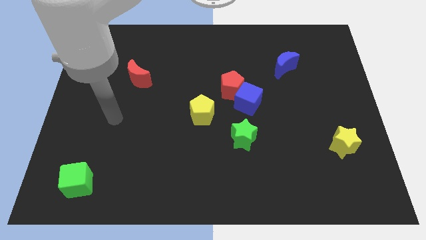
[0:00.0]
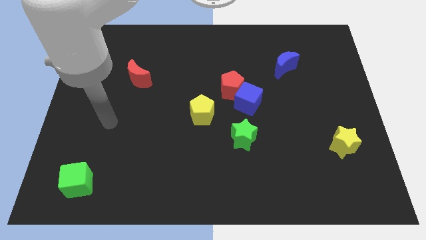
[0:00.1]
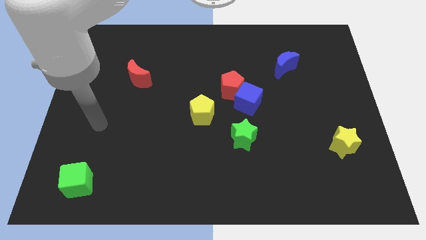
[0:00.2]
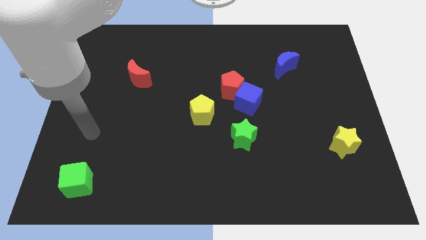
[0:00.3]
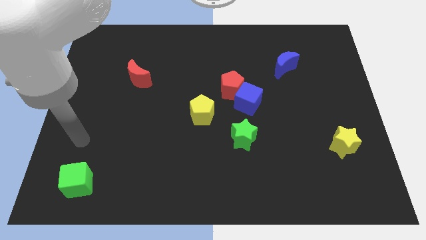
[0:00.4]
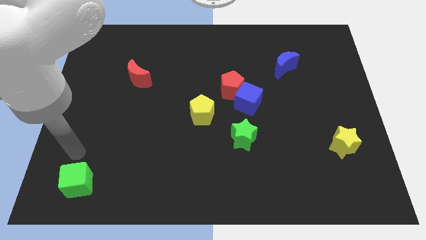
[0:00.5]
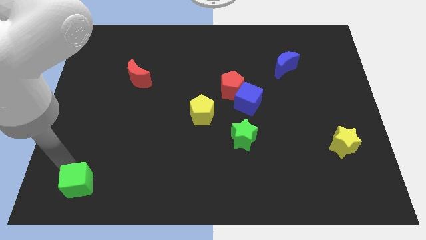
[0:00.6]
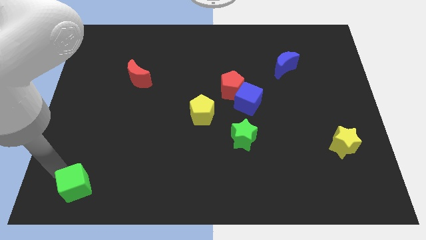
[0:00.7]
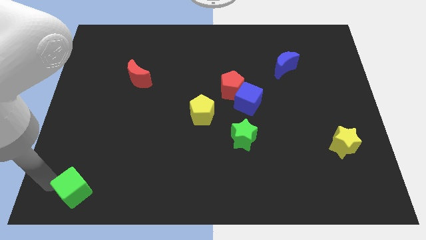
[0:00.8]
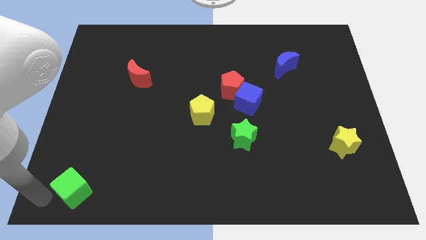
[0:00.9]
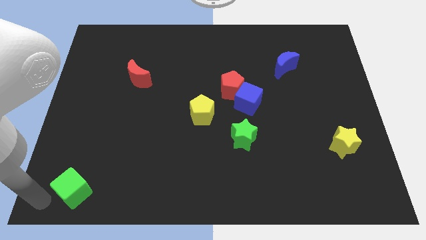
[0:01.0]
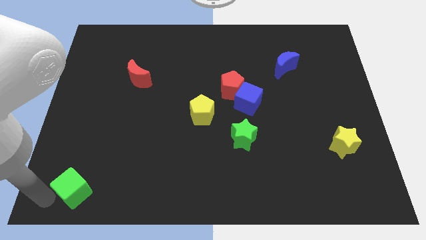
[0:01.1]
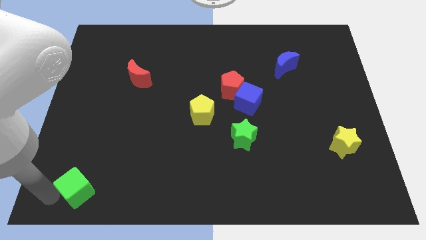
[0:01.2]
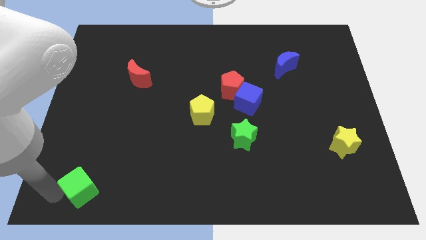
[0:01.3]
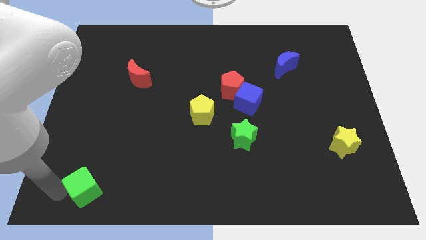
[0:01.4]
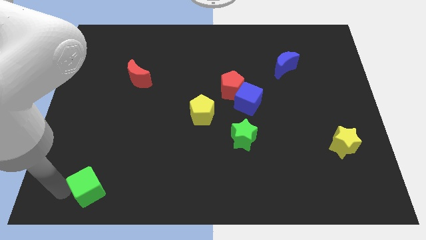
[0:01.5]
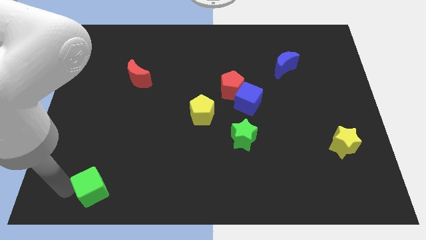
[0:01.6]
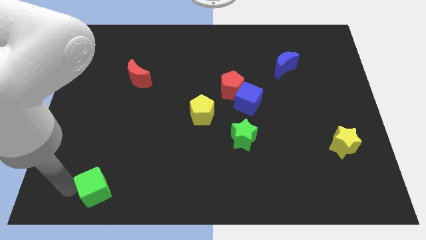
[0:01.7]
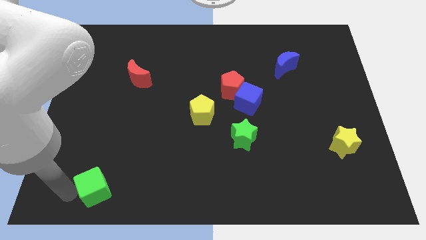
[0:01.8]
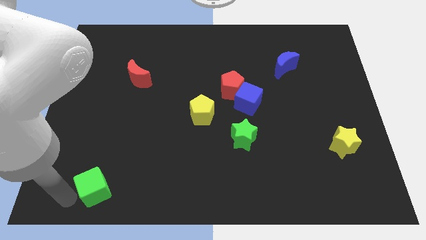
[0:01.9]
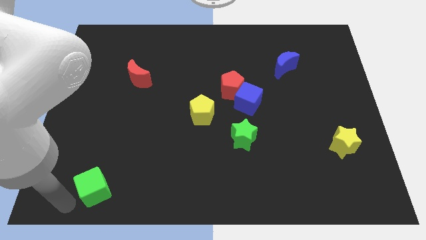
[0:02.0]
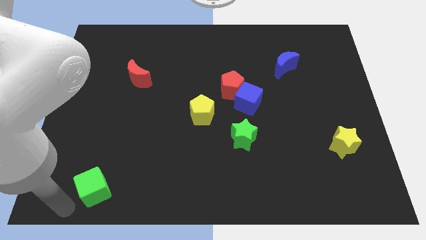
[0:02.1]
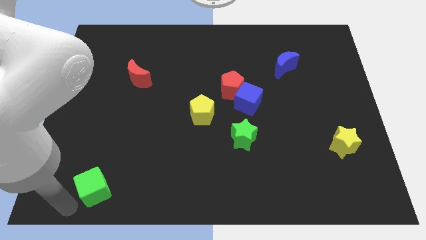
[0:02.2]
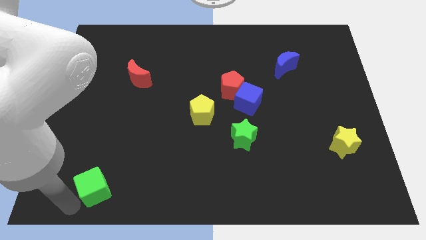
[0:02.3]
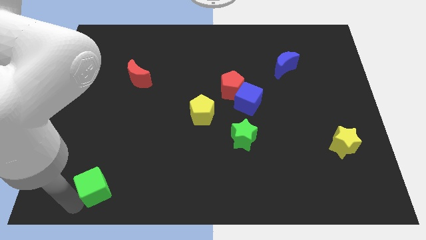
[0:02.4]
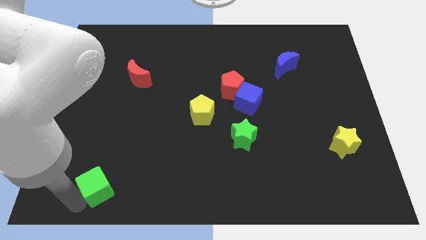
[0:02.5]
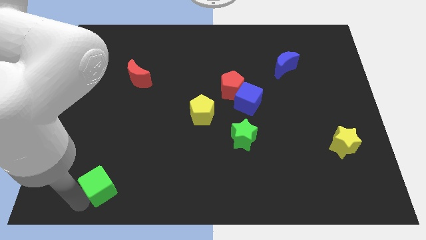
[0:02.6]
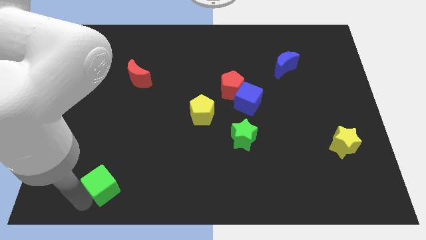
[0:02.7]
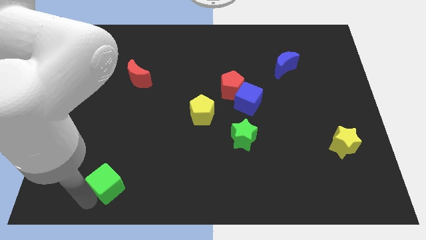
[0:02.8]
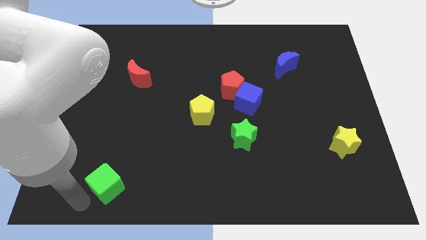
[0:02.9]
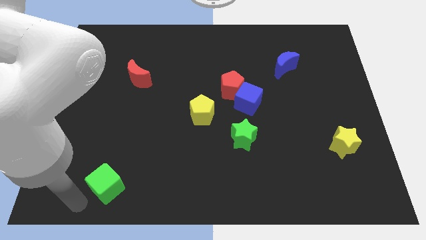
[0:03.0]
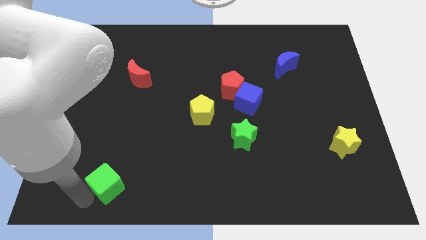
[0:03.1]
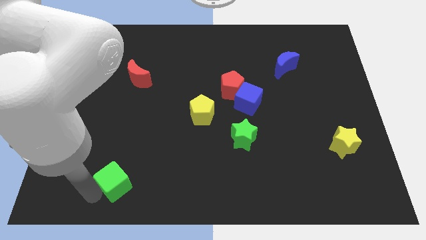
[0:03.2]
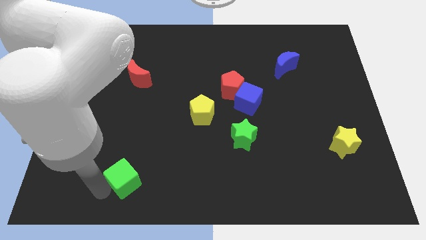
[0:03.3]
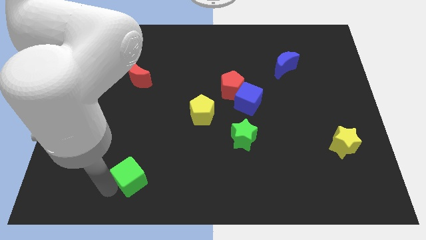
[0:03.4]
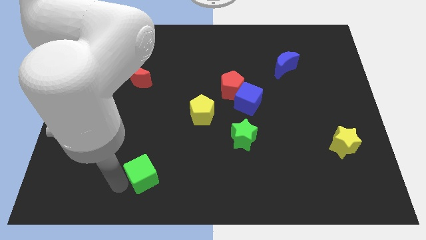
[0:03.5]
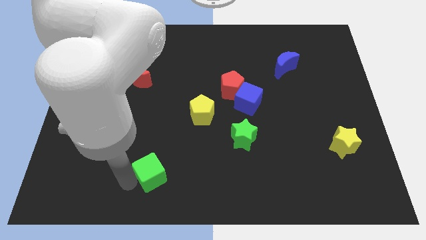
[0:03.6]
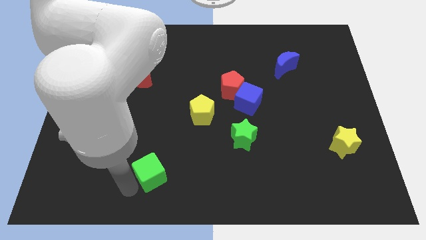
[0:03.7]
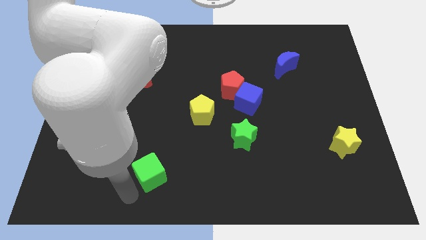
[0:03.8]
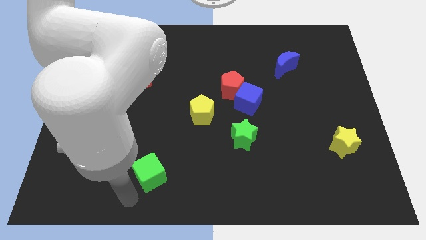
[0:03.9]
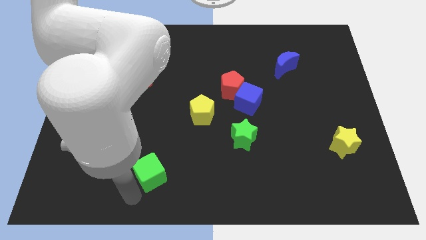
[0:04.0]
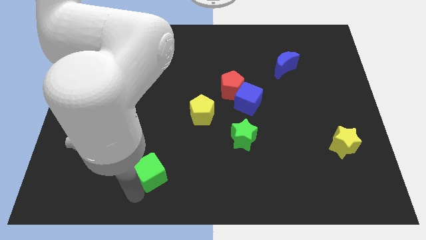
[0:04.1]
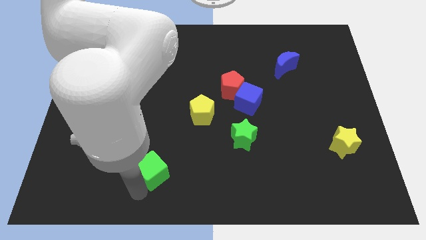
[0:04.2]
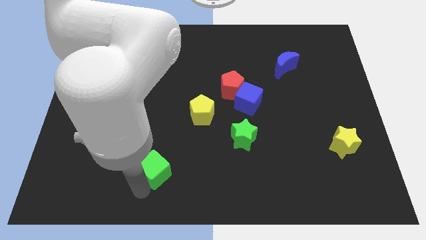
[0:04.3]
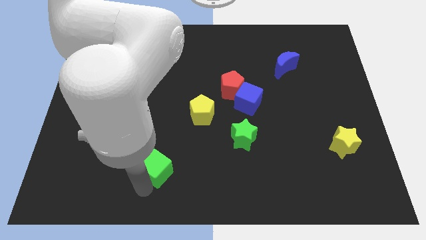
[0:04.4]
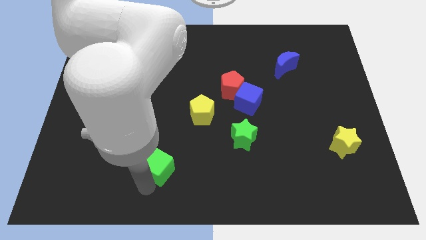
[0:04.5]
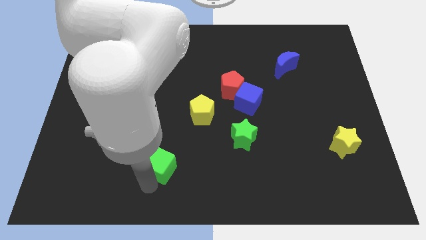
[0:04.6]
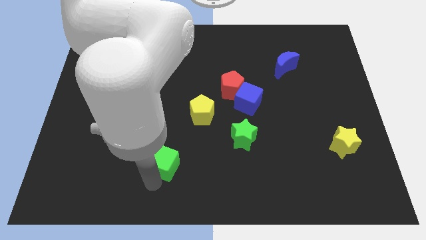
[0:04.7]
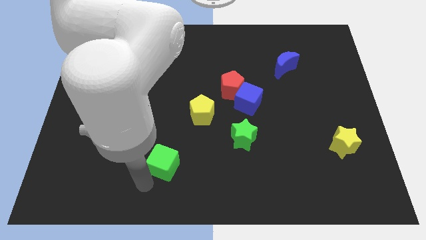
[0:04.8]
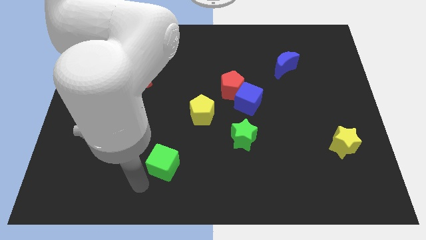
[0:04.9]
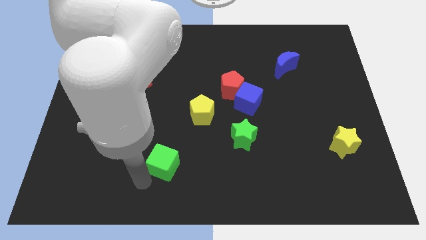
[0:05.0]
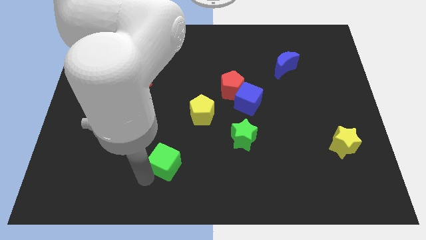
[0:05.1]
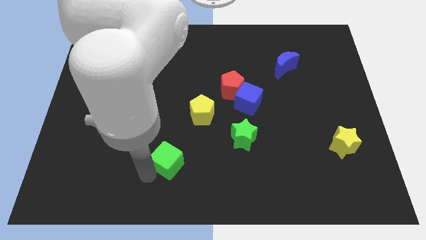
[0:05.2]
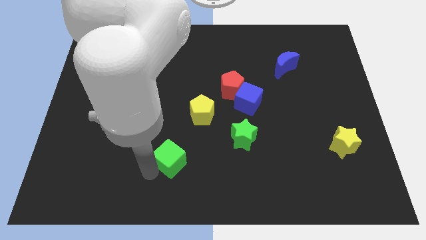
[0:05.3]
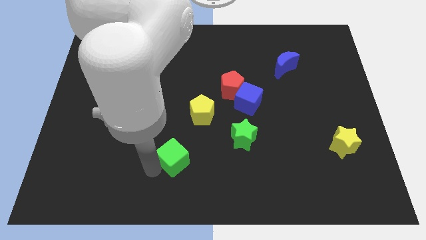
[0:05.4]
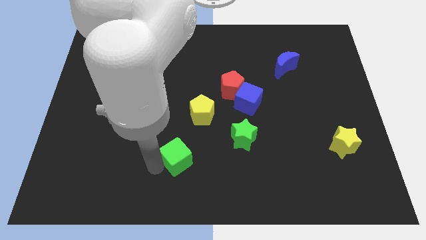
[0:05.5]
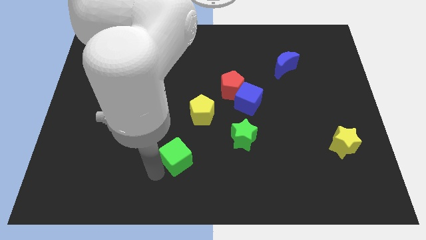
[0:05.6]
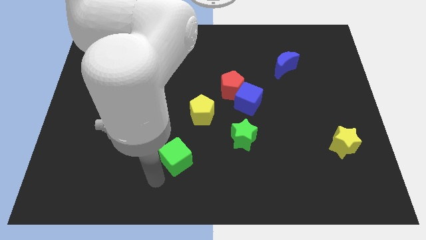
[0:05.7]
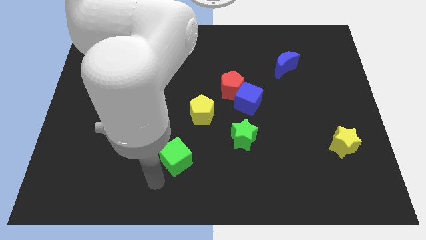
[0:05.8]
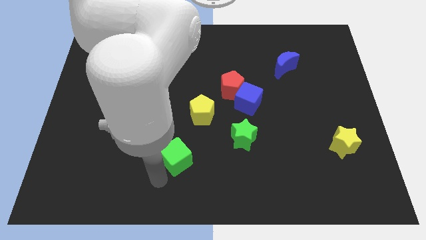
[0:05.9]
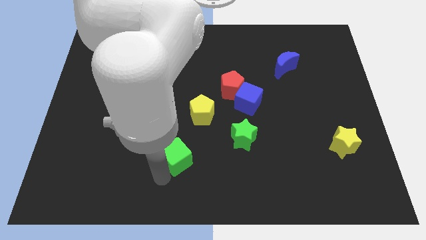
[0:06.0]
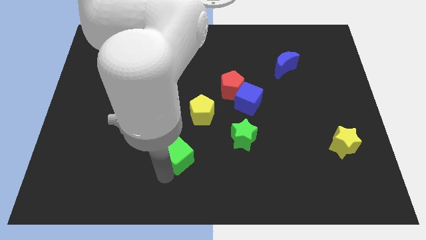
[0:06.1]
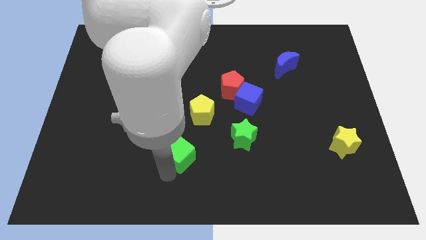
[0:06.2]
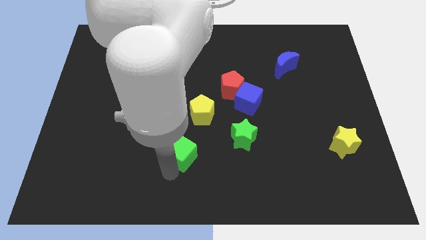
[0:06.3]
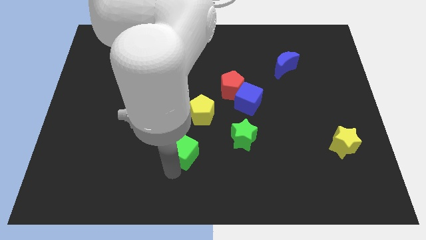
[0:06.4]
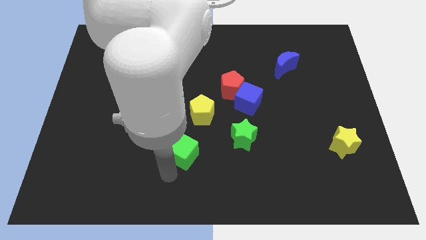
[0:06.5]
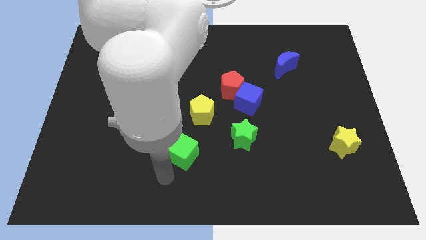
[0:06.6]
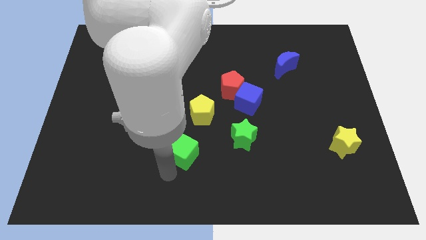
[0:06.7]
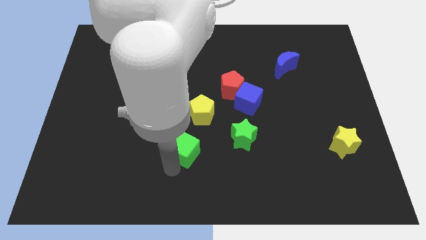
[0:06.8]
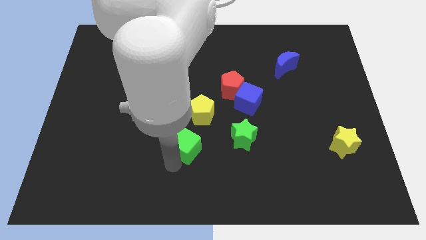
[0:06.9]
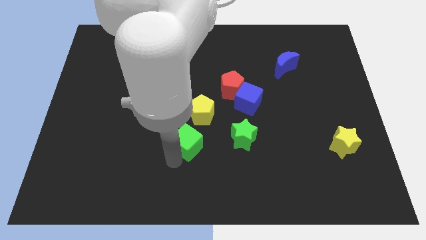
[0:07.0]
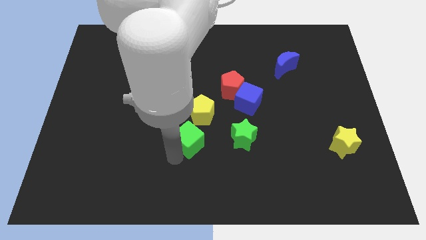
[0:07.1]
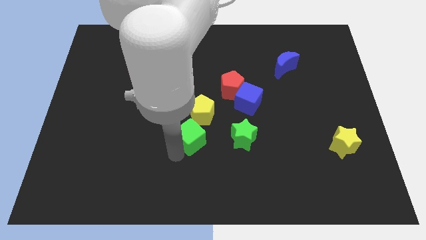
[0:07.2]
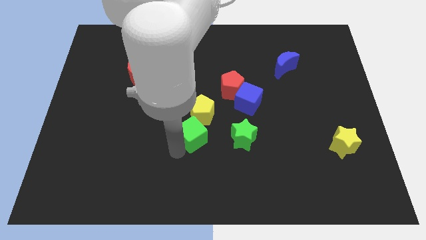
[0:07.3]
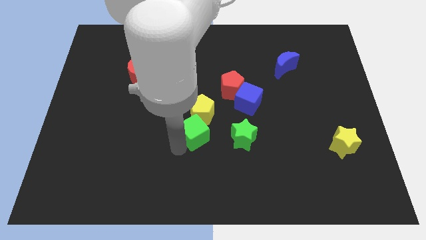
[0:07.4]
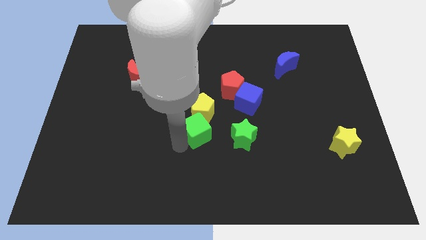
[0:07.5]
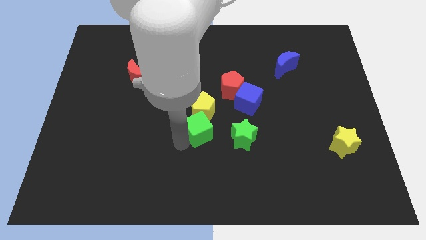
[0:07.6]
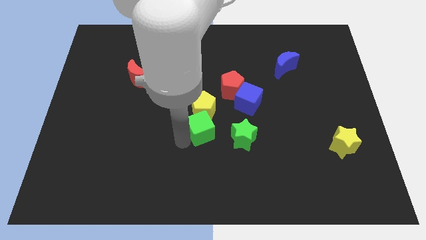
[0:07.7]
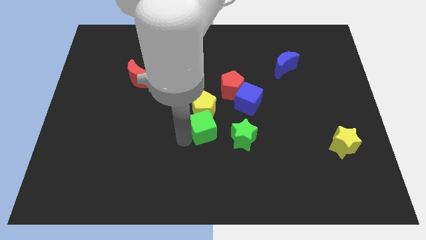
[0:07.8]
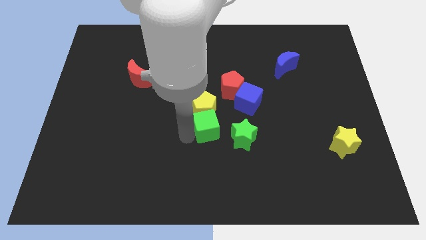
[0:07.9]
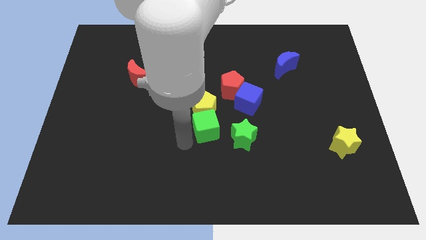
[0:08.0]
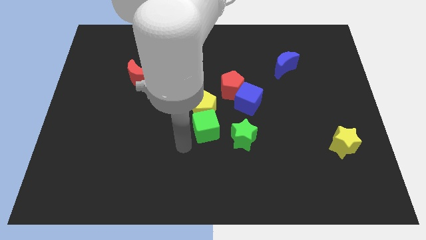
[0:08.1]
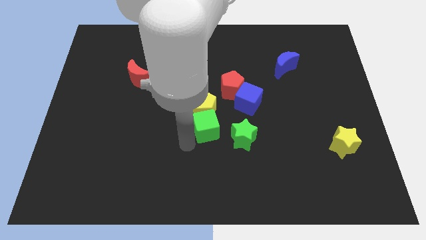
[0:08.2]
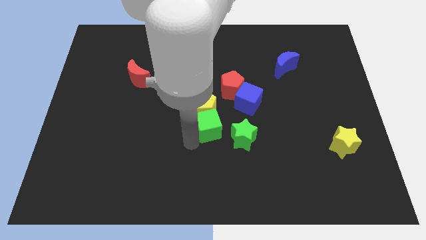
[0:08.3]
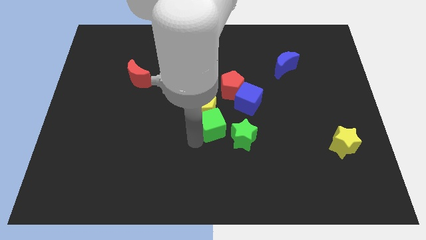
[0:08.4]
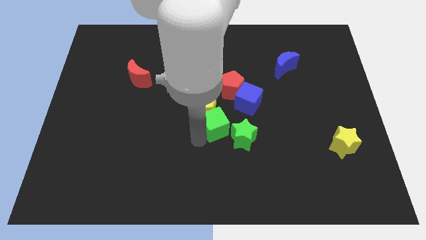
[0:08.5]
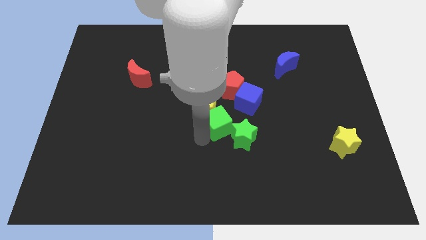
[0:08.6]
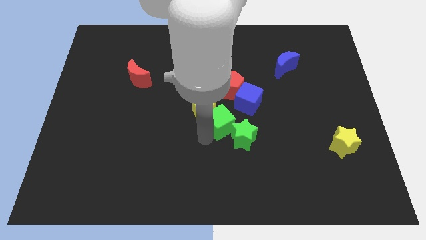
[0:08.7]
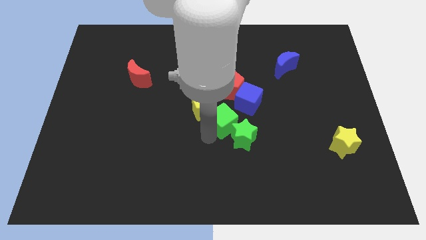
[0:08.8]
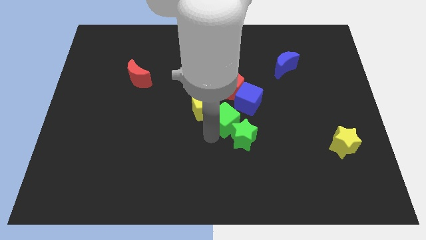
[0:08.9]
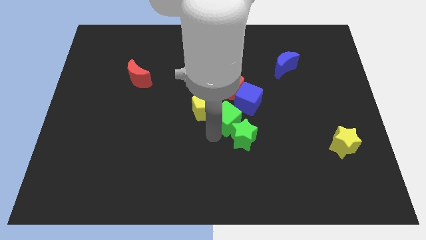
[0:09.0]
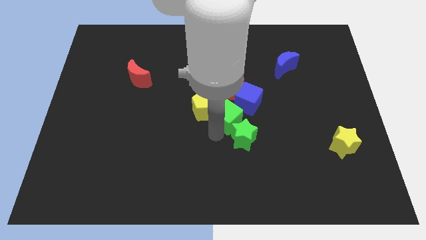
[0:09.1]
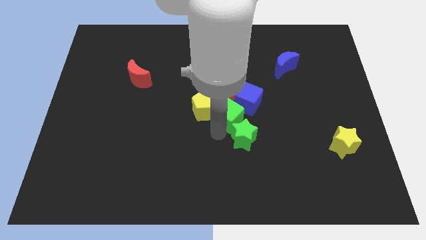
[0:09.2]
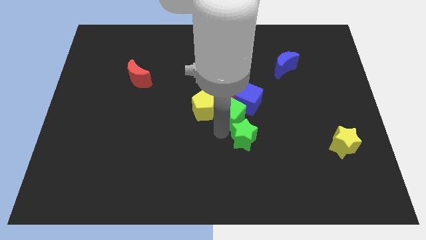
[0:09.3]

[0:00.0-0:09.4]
put the green cube to the blue cube
